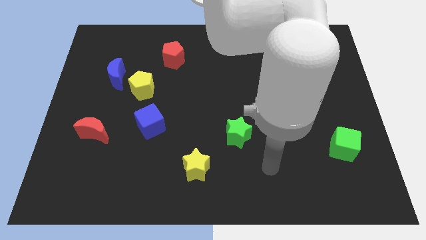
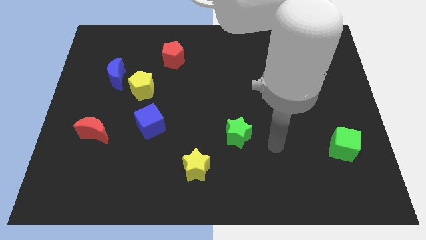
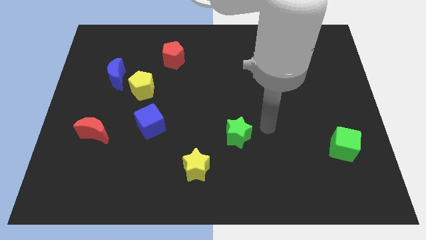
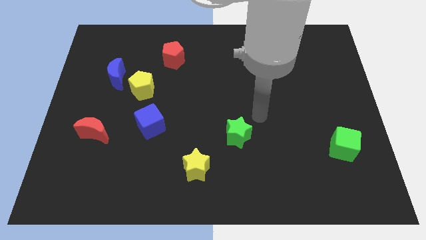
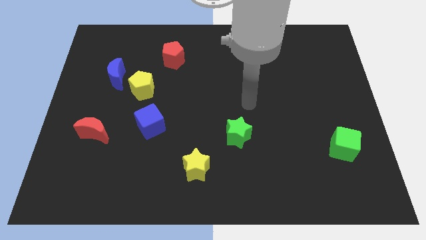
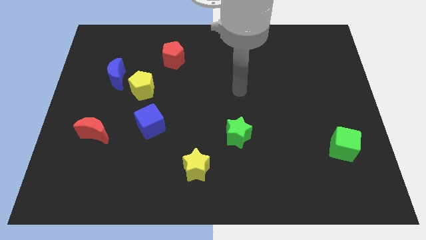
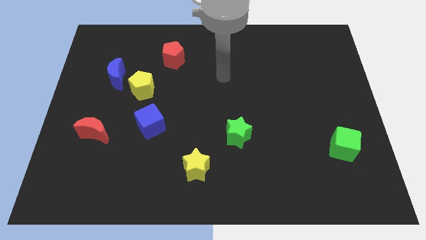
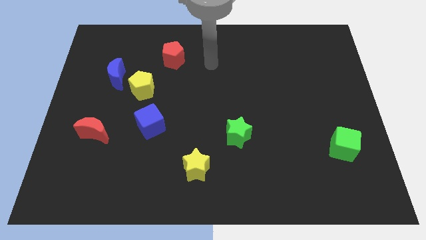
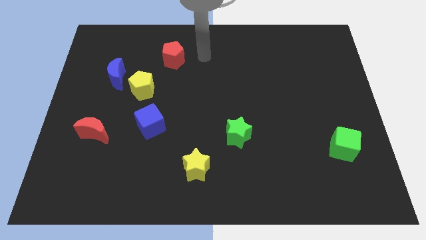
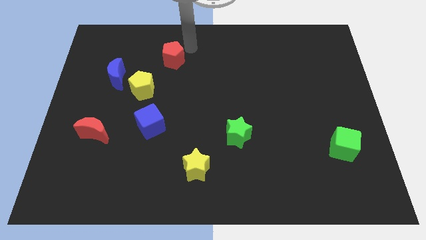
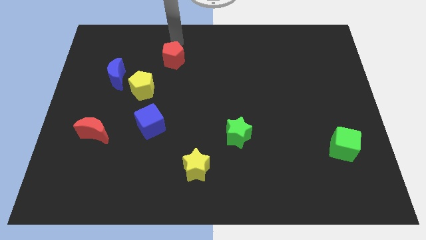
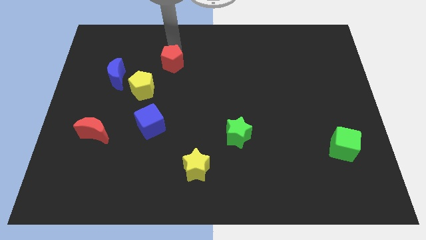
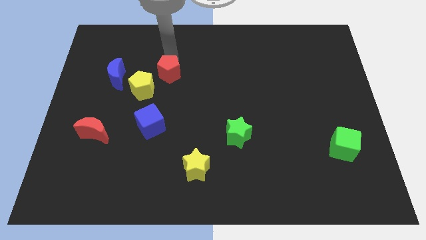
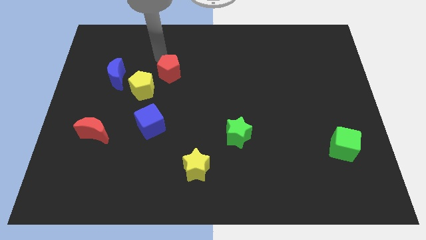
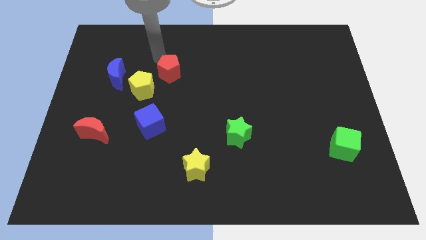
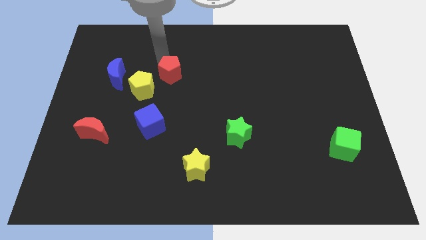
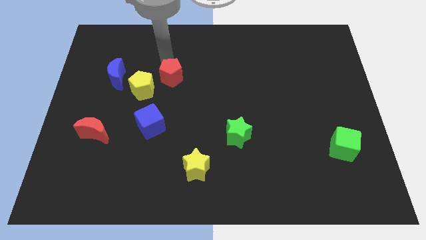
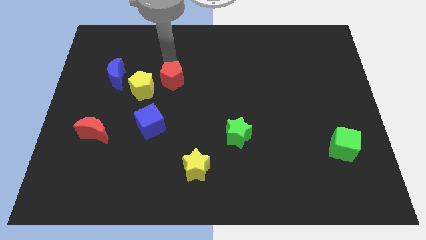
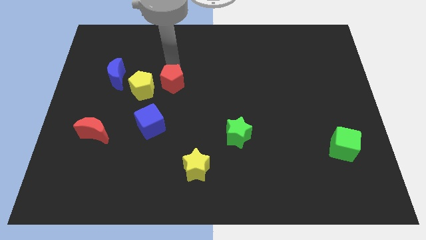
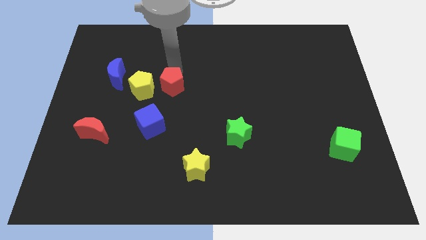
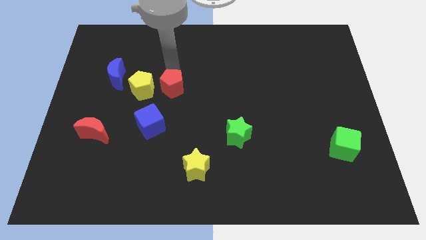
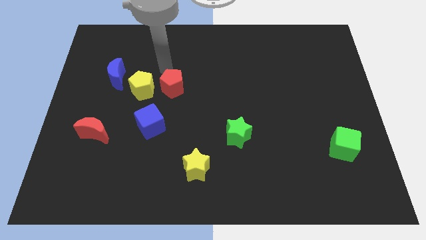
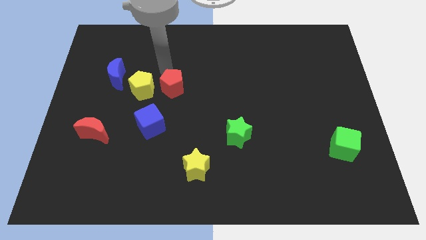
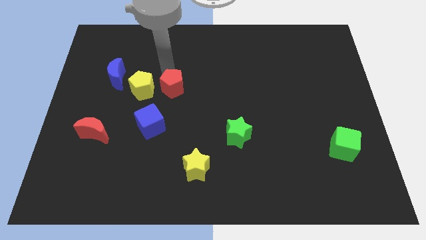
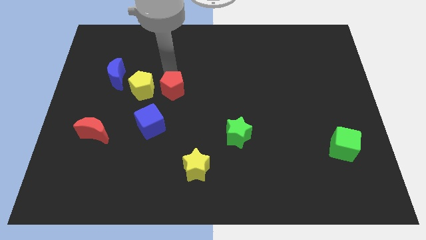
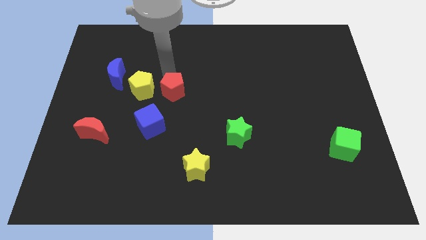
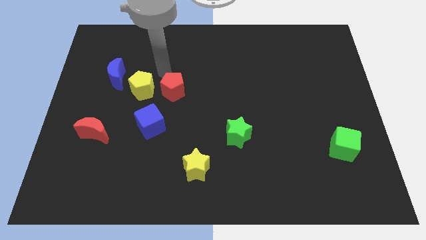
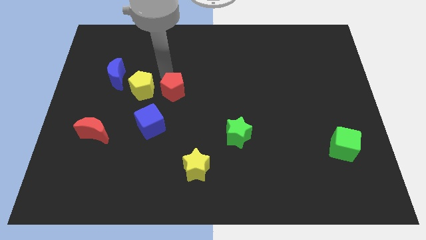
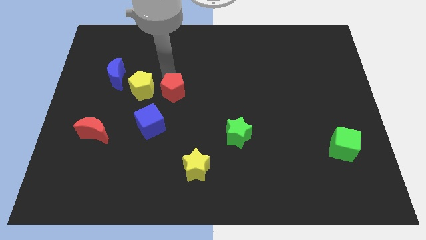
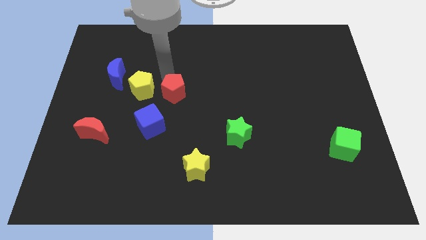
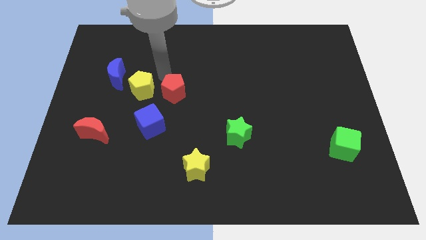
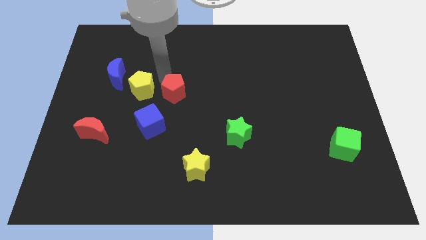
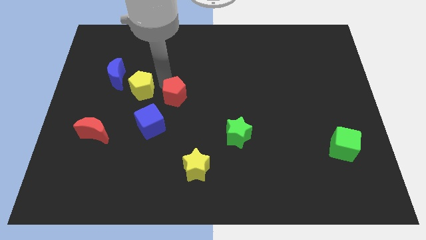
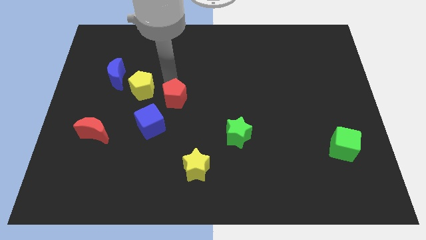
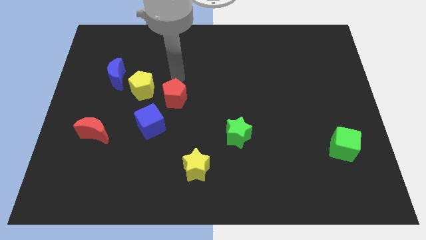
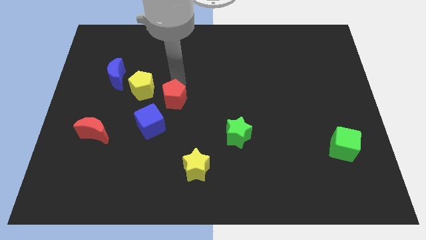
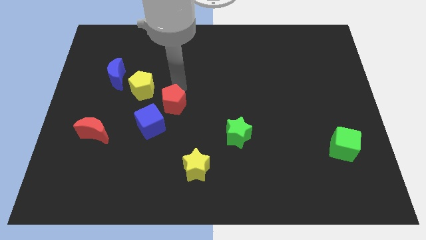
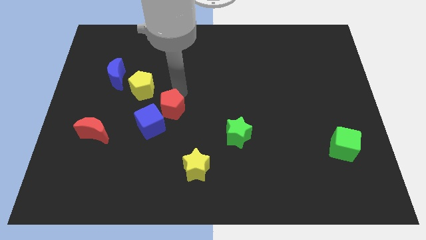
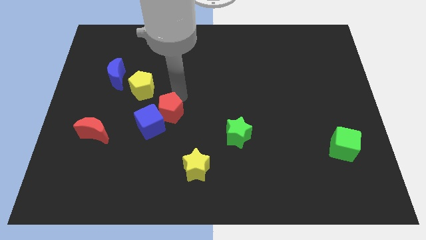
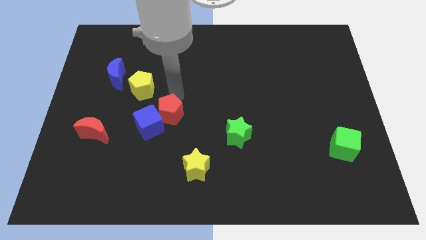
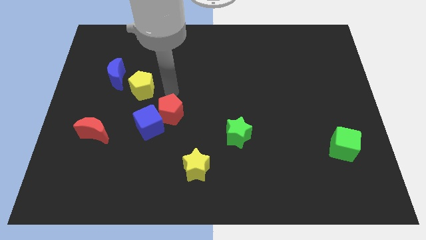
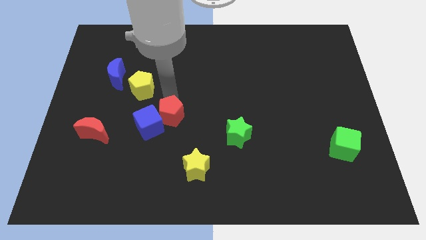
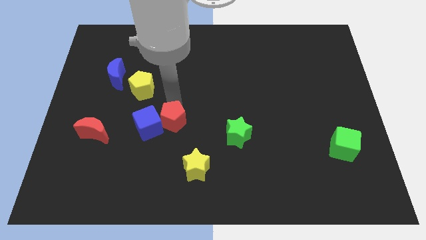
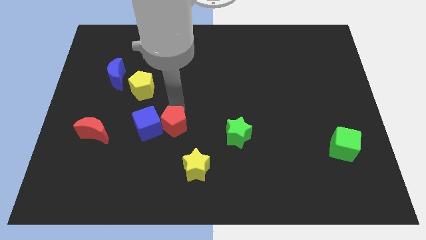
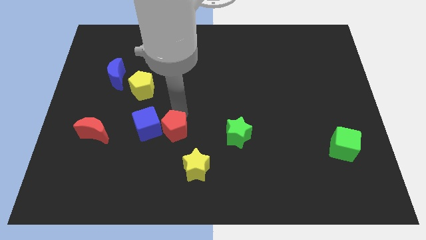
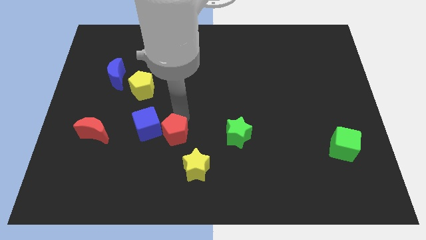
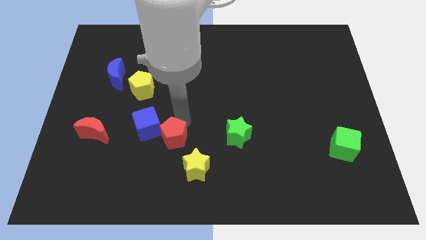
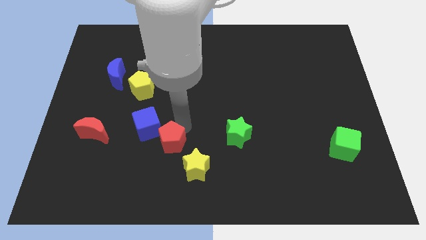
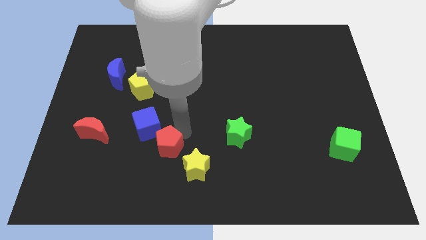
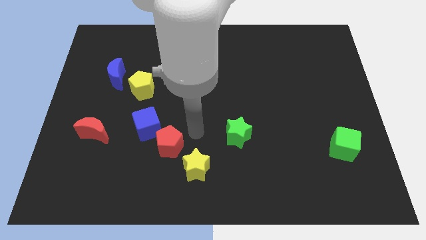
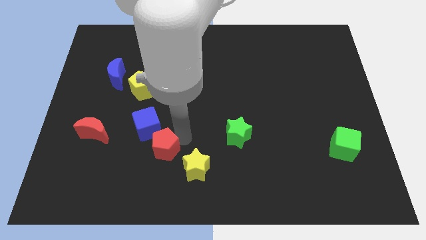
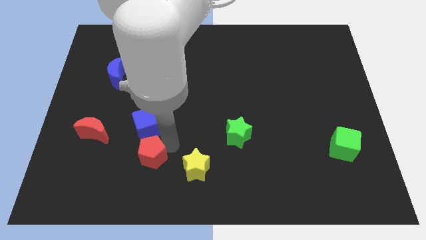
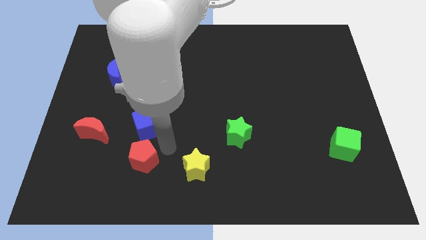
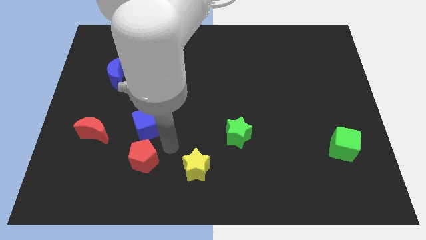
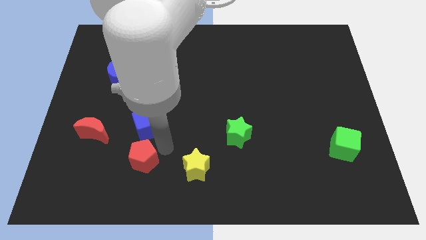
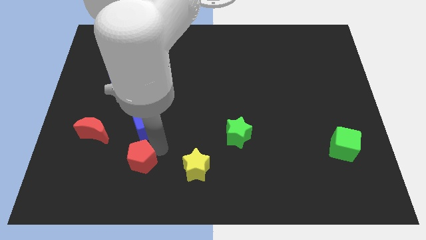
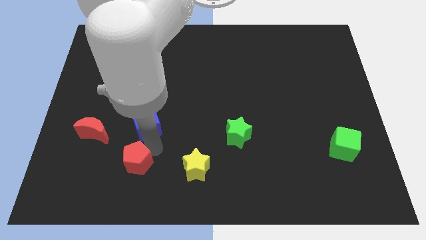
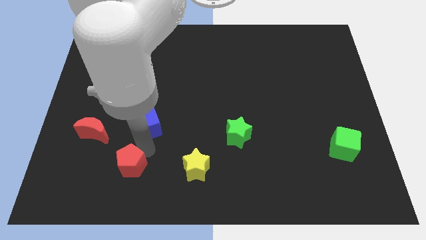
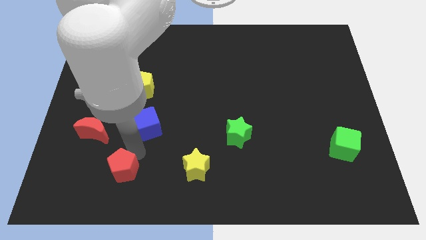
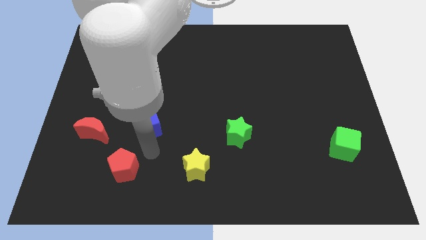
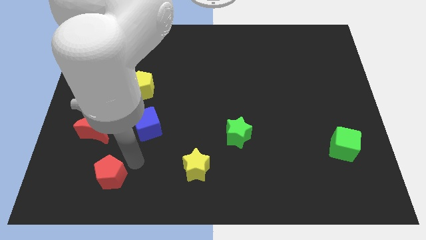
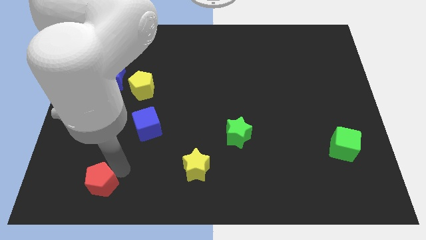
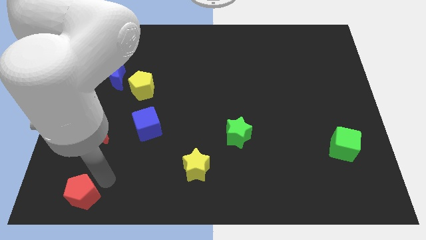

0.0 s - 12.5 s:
slide the red pentagon to the bottom left corner

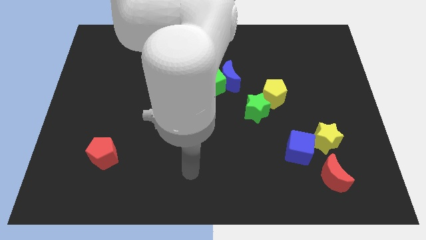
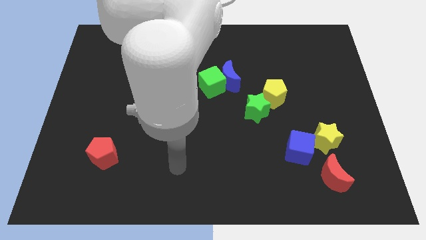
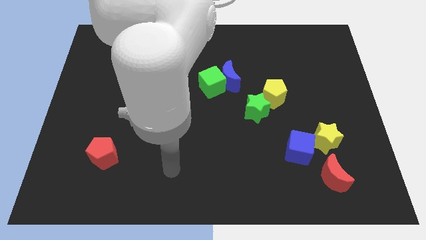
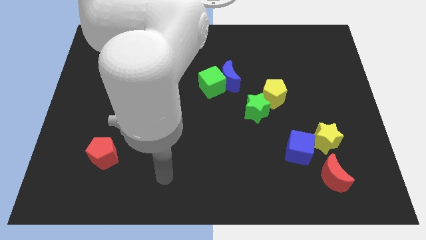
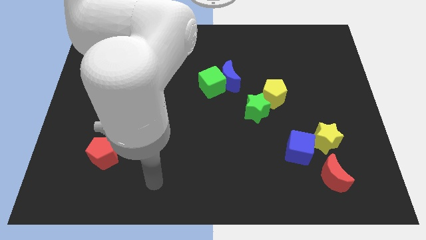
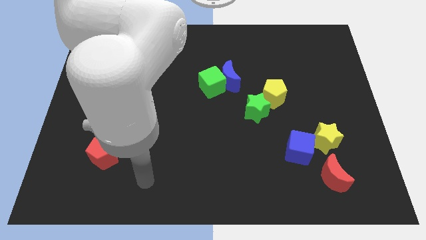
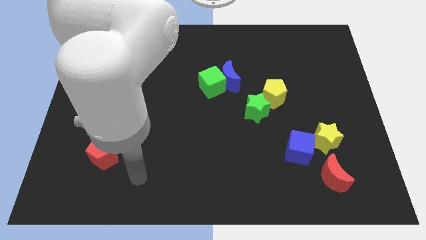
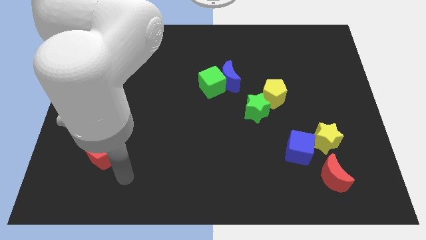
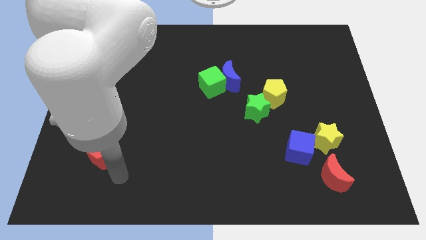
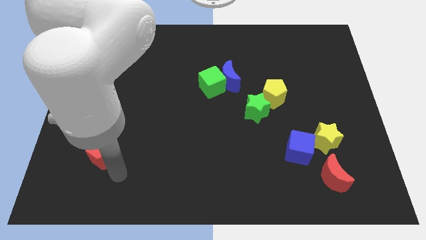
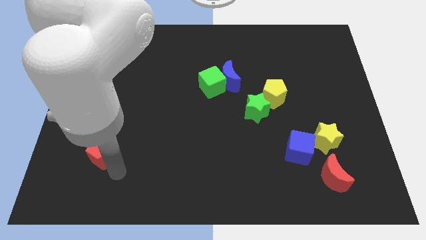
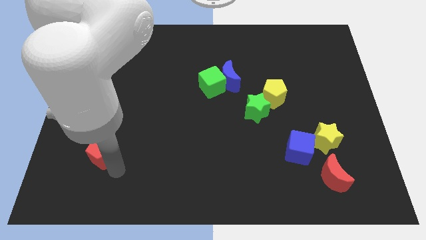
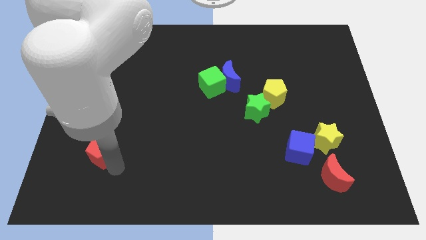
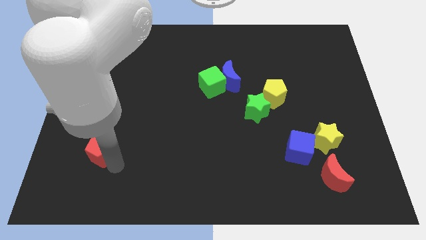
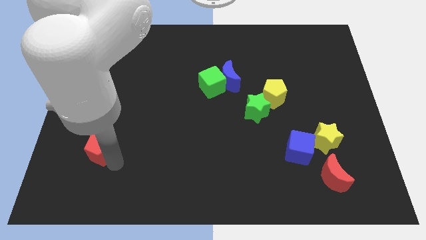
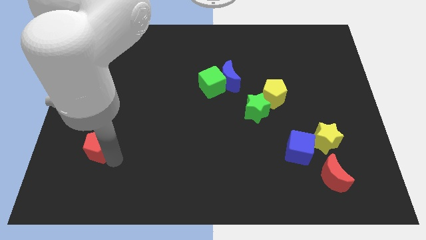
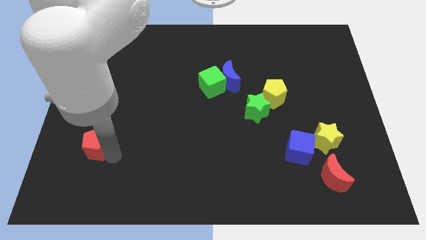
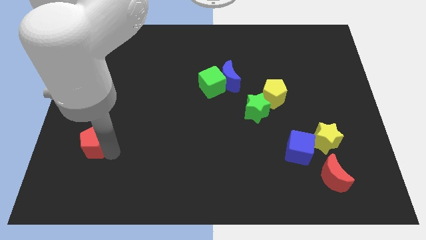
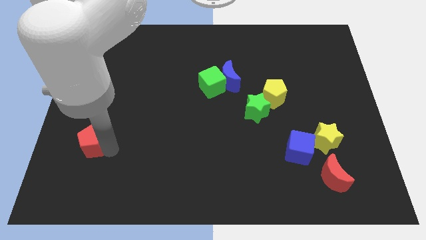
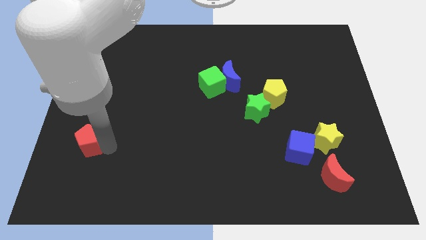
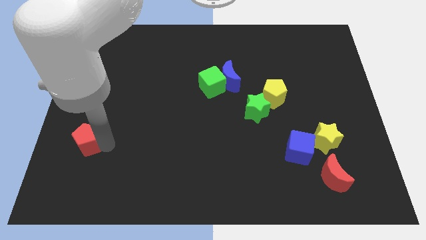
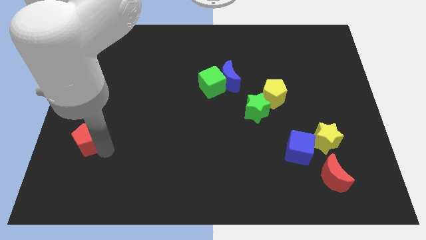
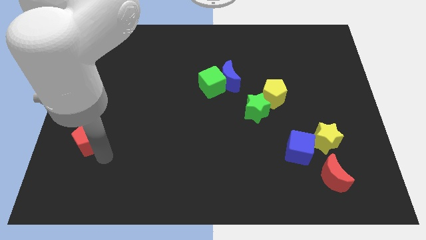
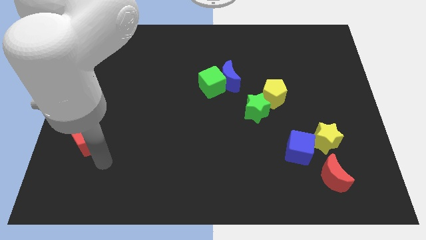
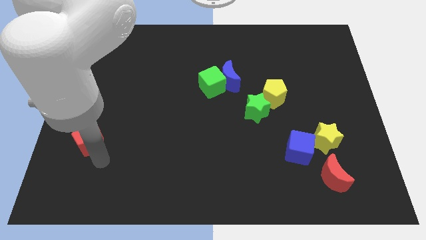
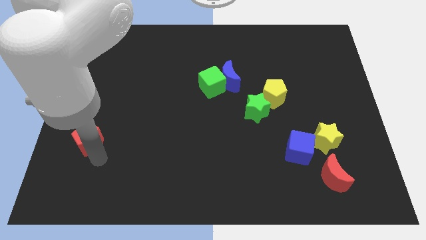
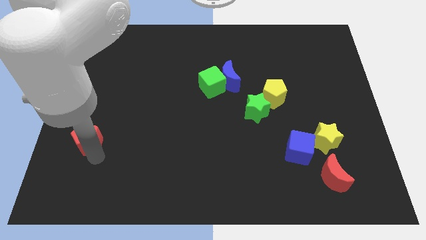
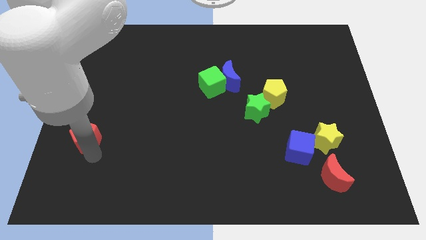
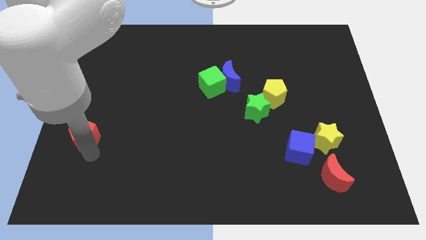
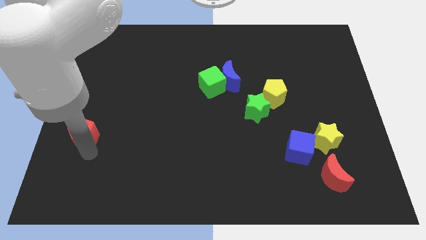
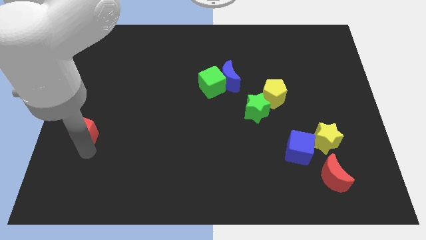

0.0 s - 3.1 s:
put the red pentagon to the left side
